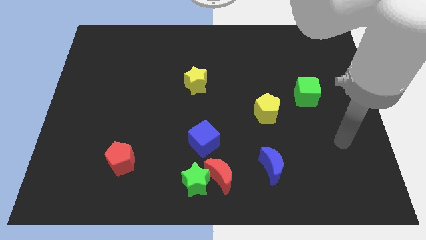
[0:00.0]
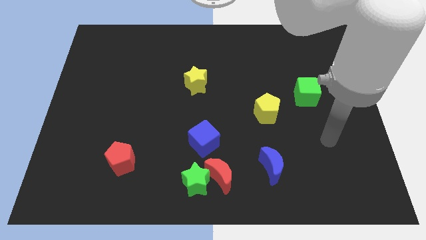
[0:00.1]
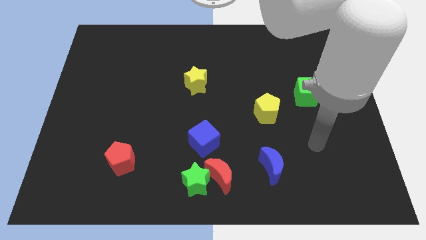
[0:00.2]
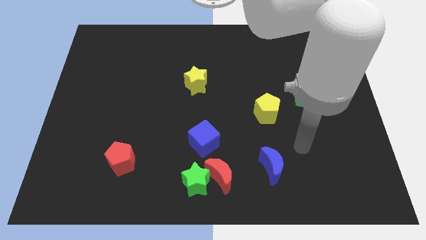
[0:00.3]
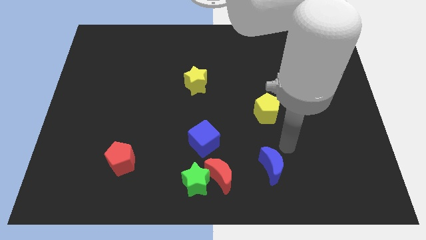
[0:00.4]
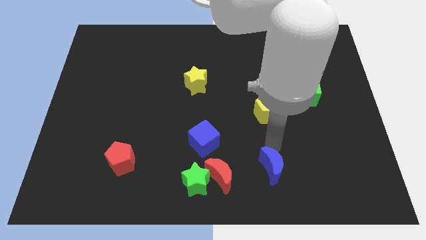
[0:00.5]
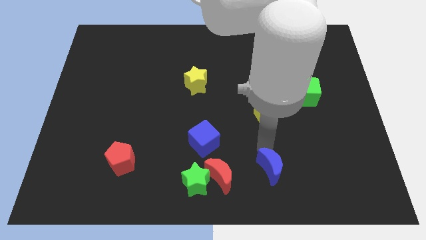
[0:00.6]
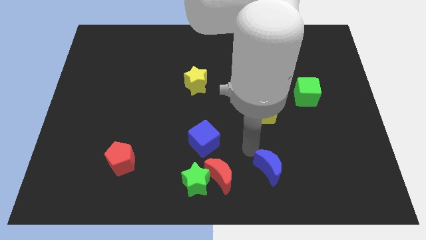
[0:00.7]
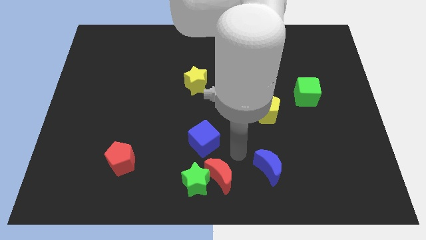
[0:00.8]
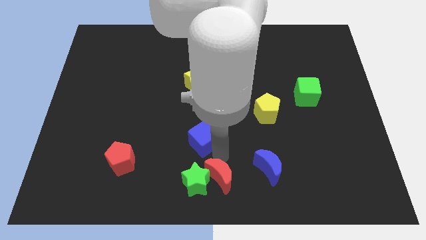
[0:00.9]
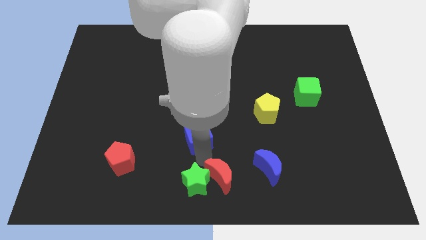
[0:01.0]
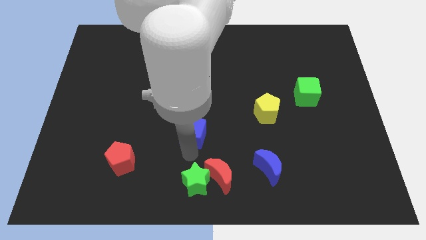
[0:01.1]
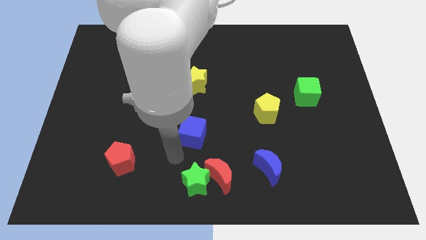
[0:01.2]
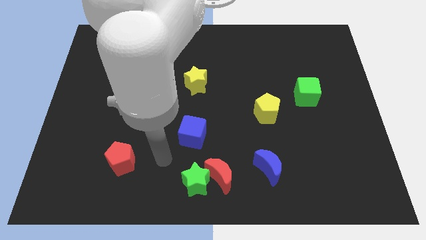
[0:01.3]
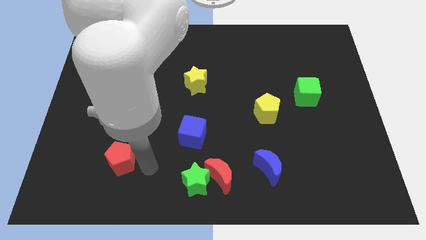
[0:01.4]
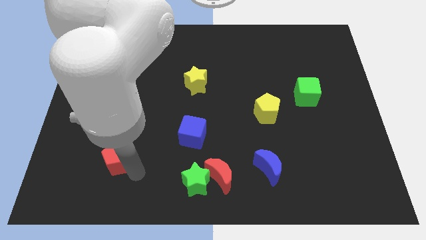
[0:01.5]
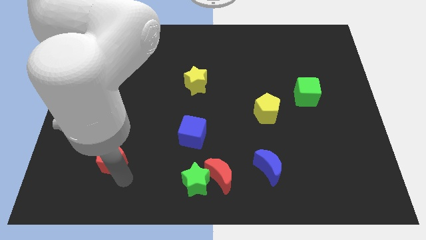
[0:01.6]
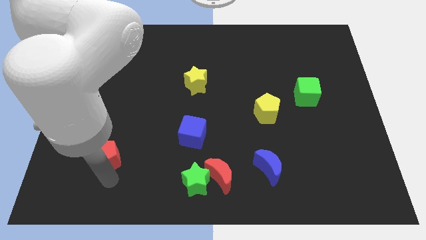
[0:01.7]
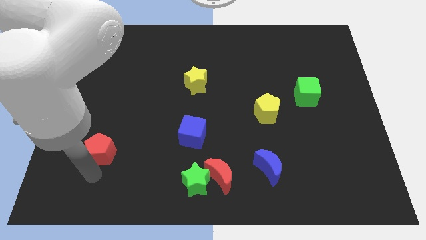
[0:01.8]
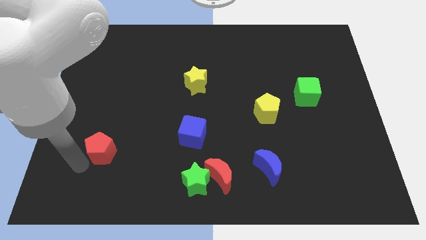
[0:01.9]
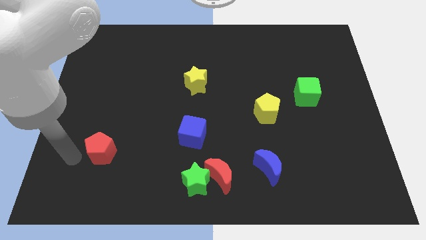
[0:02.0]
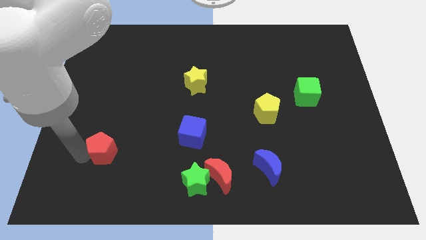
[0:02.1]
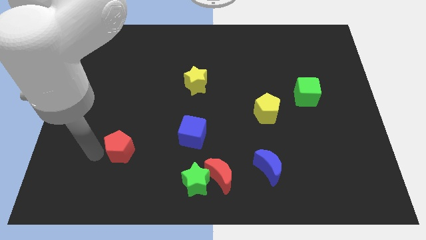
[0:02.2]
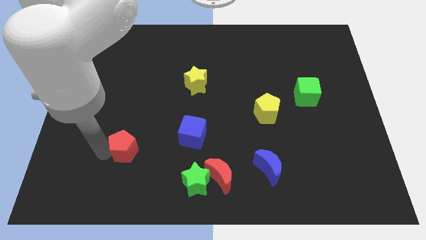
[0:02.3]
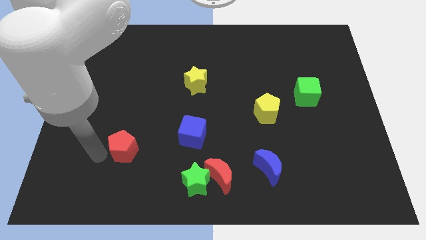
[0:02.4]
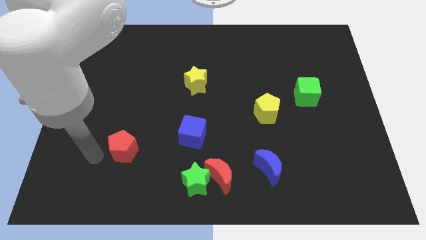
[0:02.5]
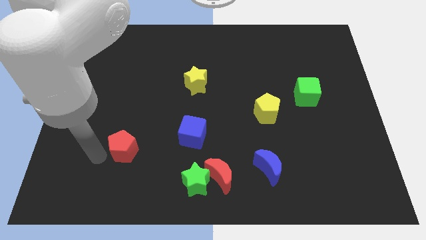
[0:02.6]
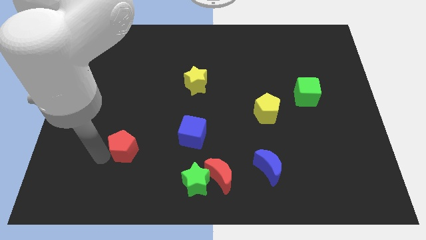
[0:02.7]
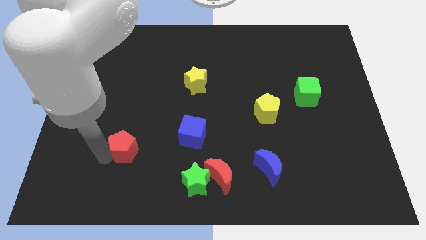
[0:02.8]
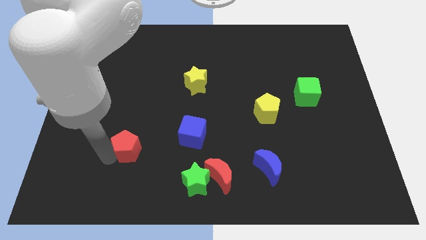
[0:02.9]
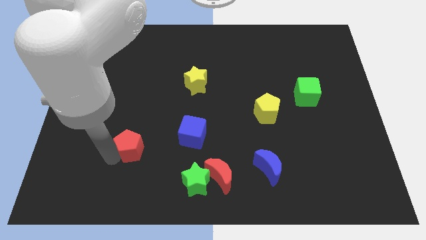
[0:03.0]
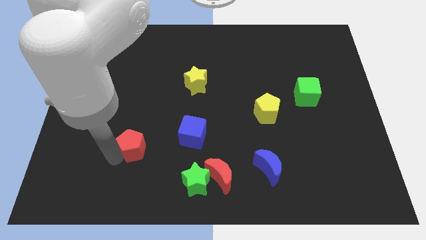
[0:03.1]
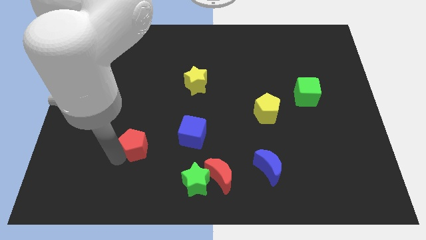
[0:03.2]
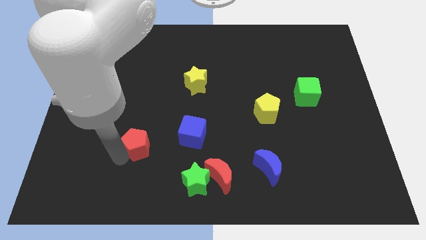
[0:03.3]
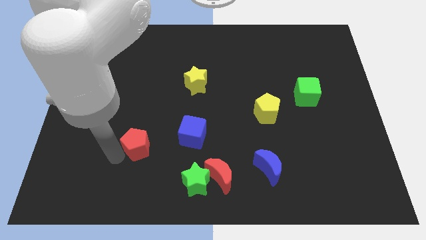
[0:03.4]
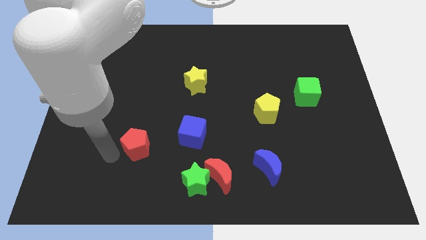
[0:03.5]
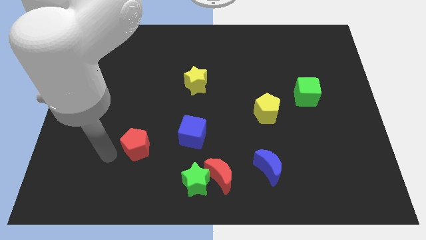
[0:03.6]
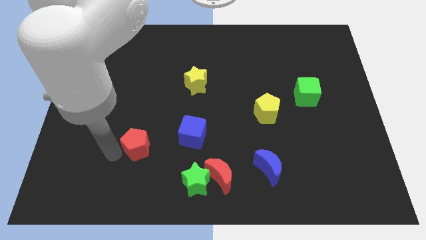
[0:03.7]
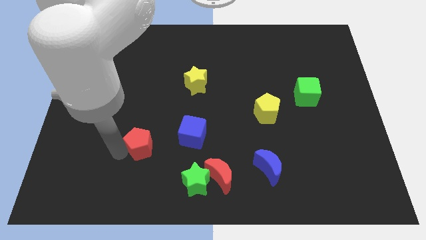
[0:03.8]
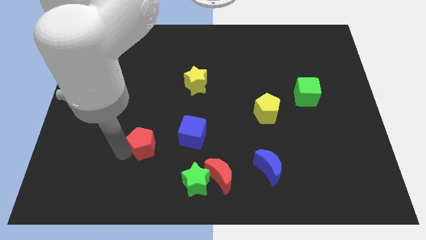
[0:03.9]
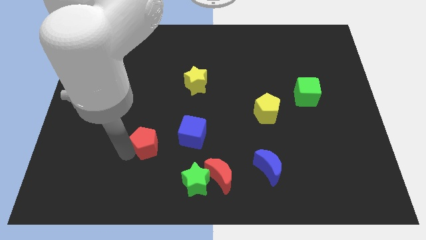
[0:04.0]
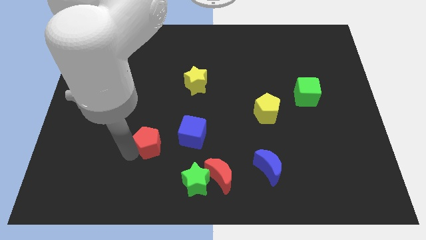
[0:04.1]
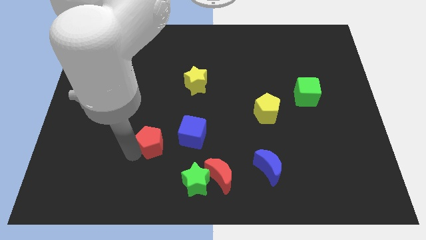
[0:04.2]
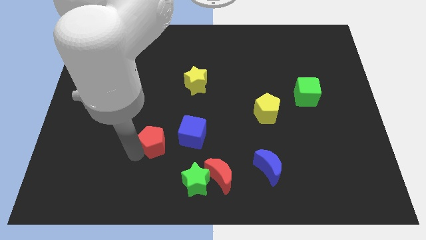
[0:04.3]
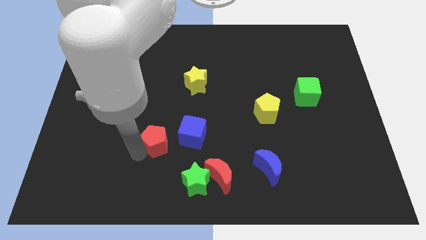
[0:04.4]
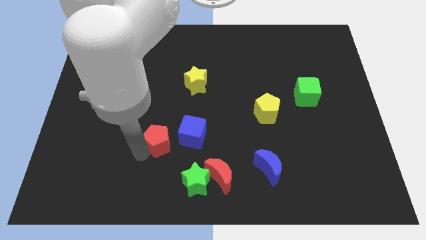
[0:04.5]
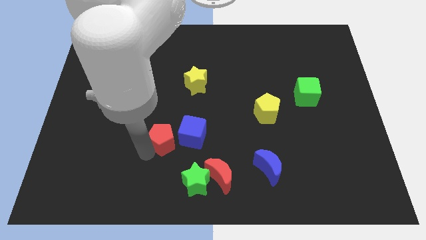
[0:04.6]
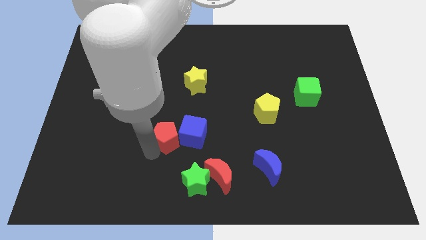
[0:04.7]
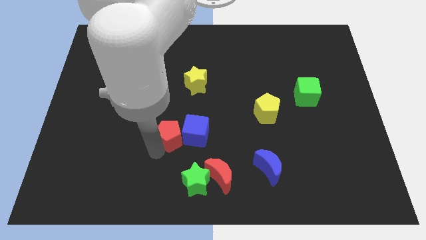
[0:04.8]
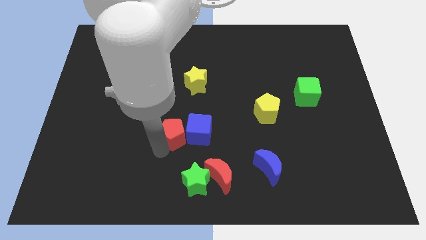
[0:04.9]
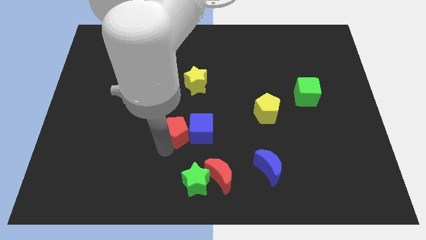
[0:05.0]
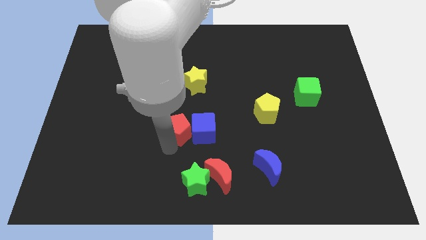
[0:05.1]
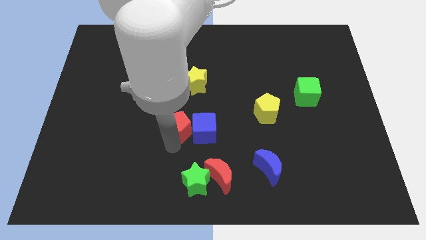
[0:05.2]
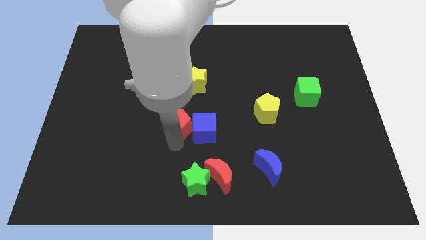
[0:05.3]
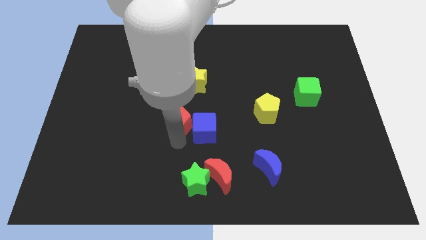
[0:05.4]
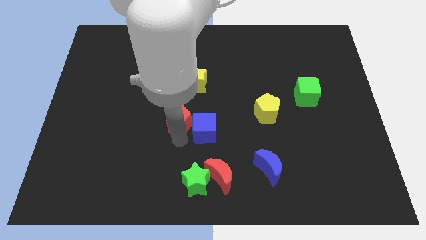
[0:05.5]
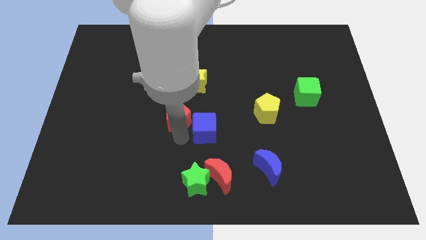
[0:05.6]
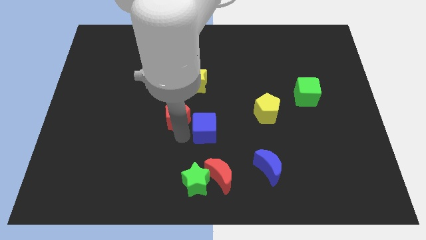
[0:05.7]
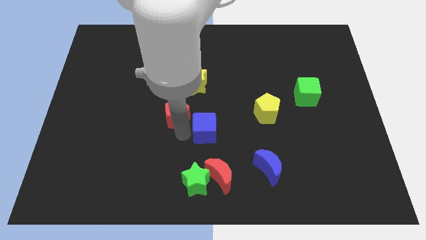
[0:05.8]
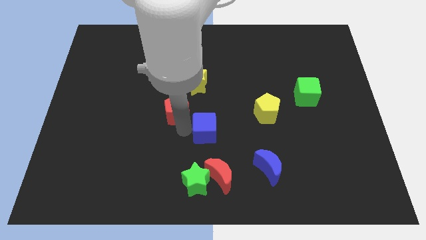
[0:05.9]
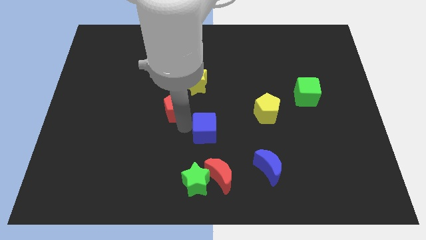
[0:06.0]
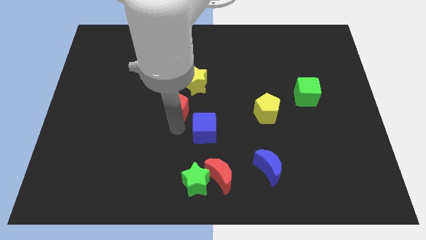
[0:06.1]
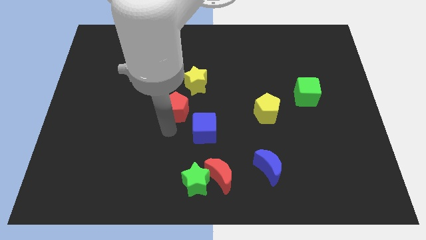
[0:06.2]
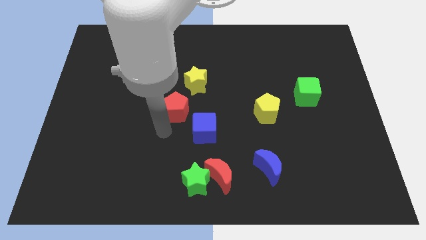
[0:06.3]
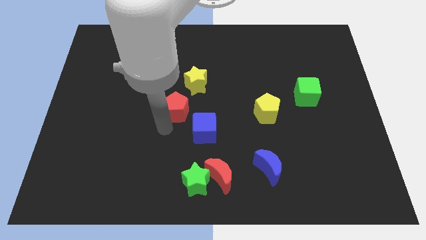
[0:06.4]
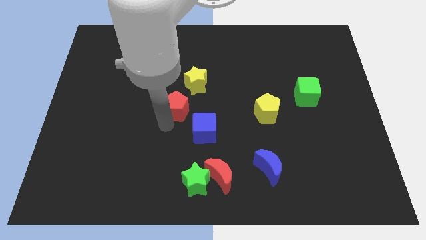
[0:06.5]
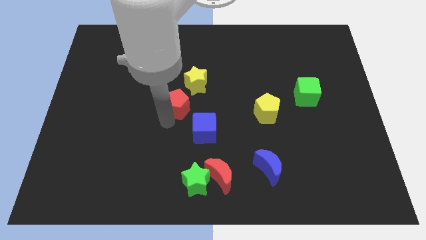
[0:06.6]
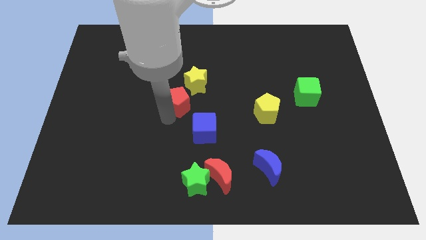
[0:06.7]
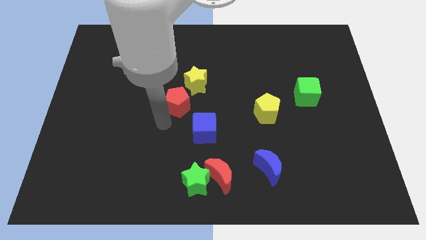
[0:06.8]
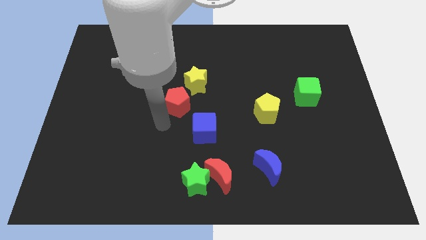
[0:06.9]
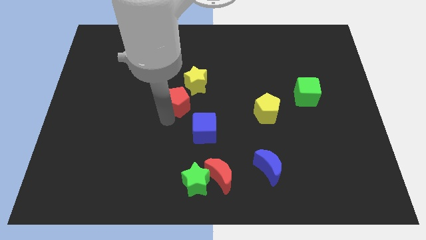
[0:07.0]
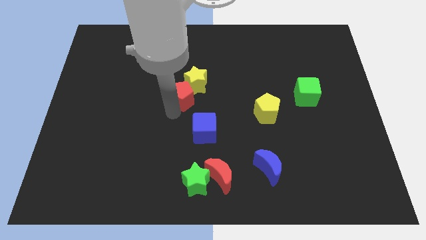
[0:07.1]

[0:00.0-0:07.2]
put the red pentagon to the yellow star
